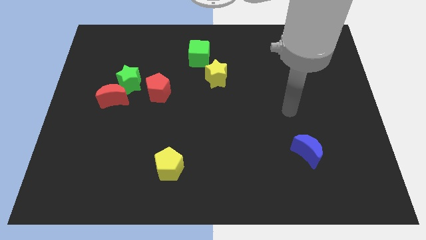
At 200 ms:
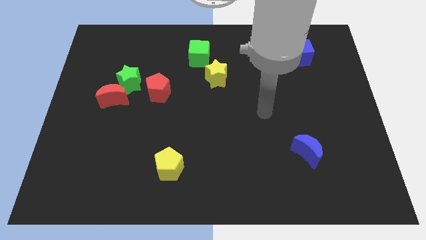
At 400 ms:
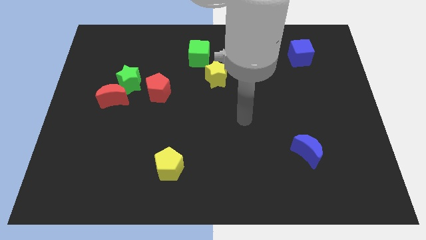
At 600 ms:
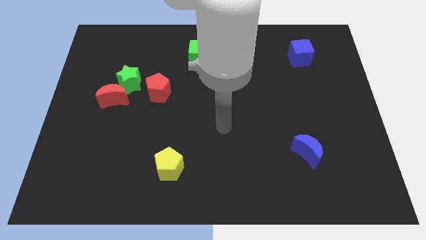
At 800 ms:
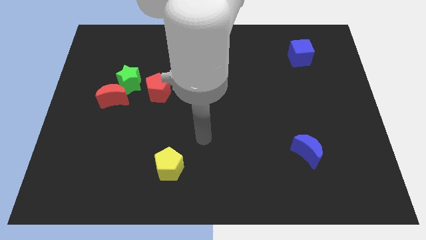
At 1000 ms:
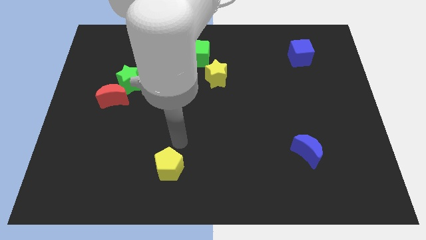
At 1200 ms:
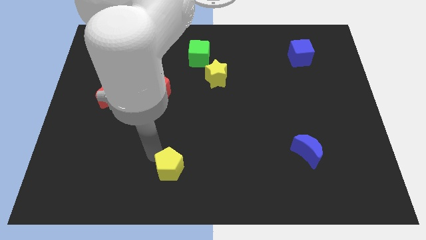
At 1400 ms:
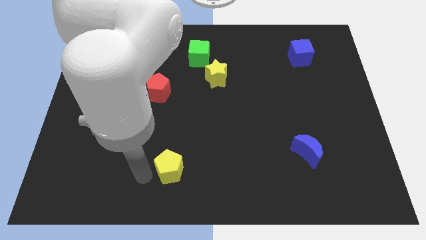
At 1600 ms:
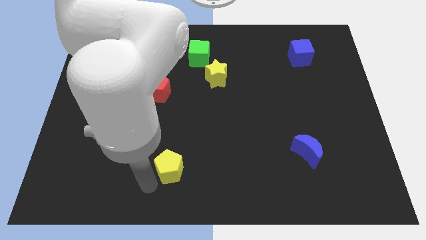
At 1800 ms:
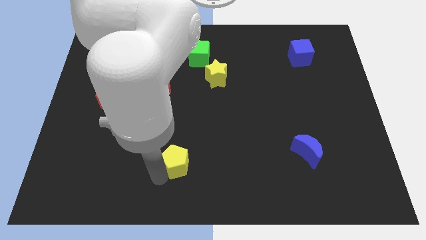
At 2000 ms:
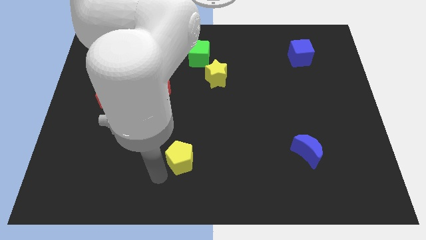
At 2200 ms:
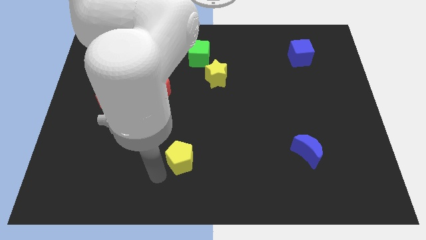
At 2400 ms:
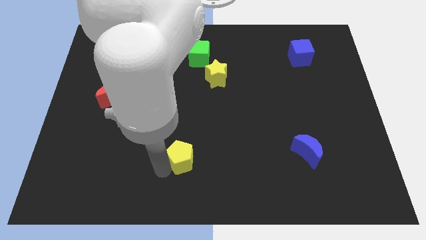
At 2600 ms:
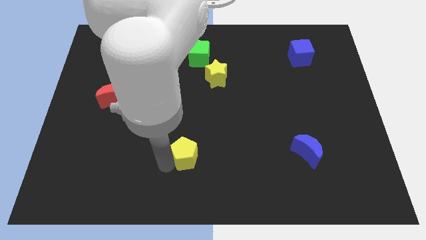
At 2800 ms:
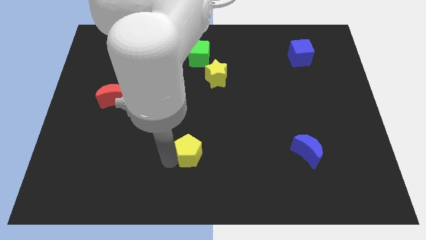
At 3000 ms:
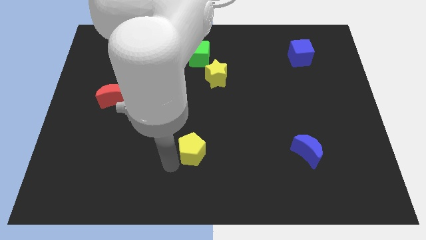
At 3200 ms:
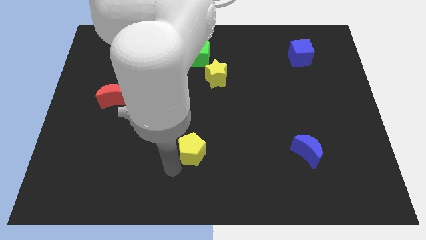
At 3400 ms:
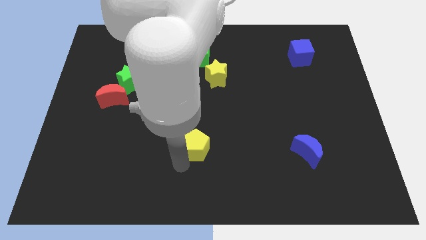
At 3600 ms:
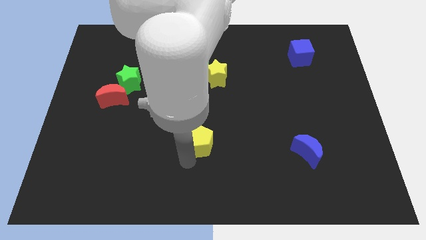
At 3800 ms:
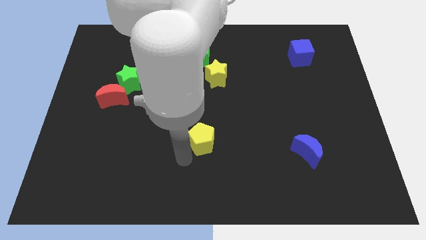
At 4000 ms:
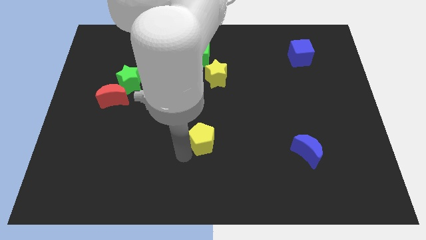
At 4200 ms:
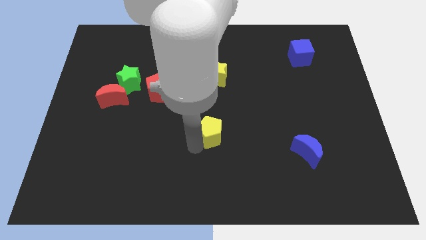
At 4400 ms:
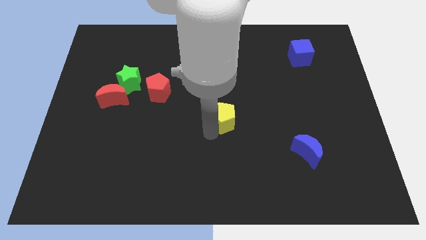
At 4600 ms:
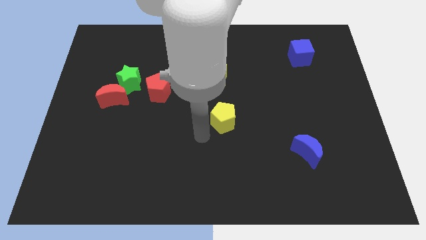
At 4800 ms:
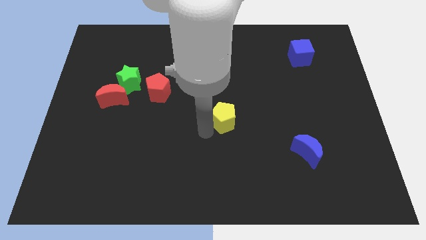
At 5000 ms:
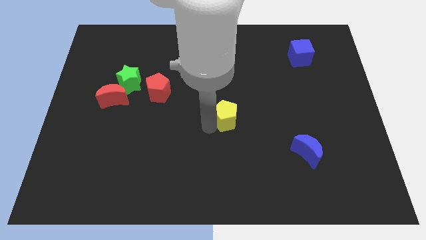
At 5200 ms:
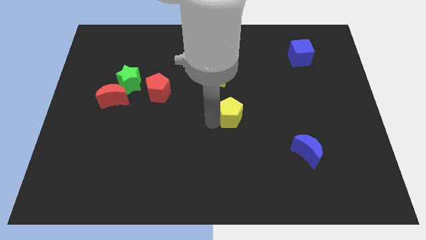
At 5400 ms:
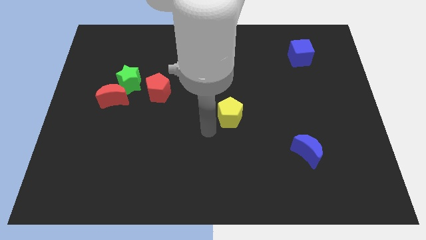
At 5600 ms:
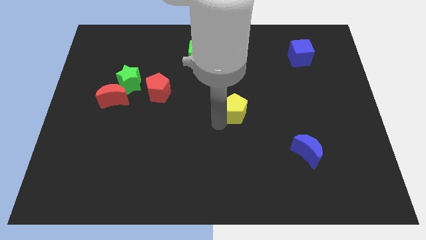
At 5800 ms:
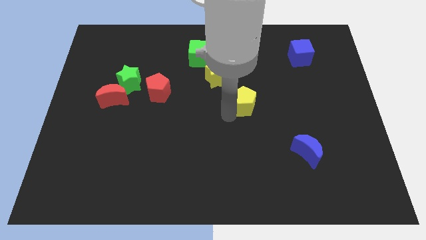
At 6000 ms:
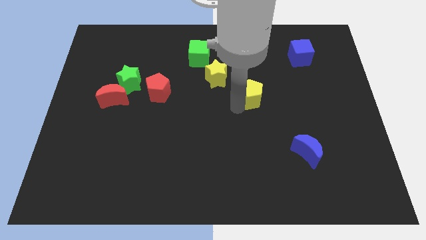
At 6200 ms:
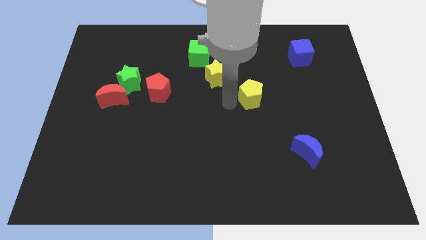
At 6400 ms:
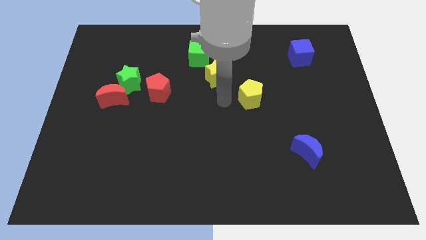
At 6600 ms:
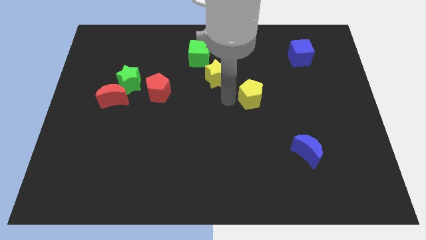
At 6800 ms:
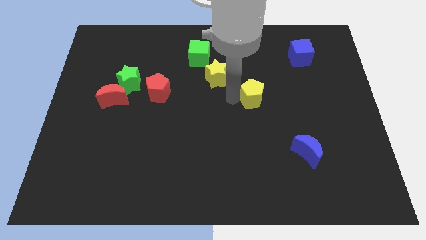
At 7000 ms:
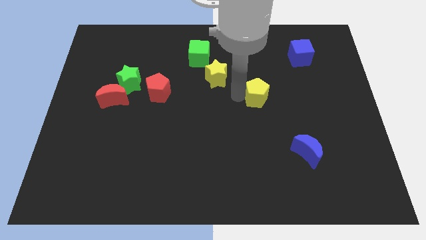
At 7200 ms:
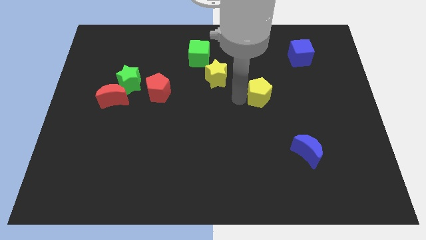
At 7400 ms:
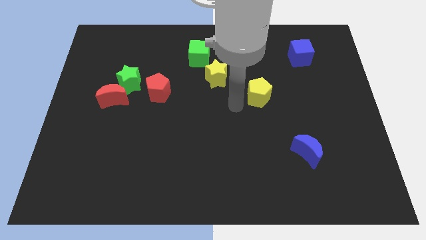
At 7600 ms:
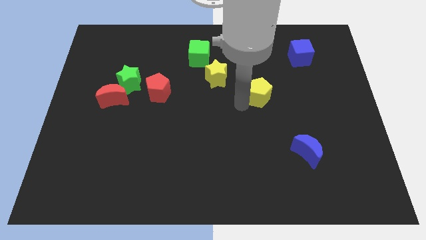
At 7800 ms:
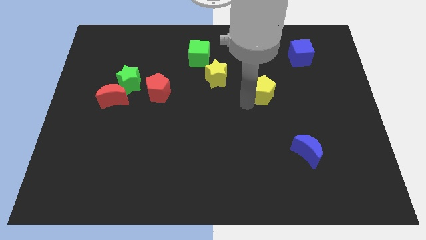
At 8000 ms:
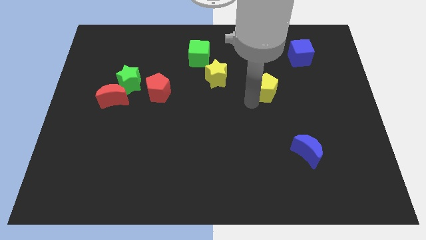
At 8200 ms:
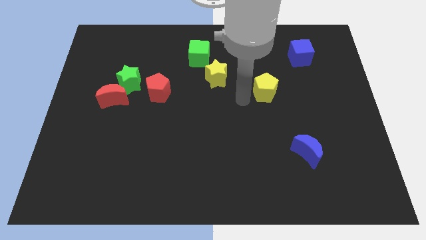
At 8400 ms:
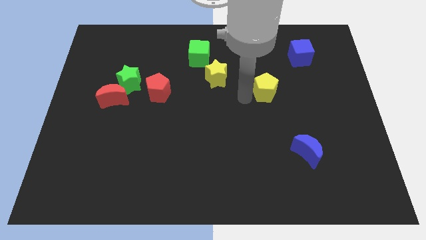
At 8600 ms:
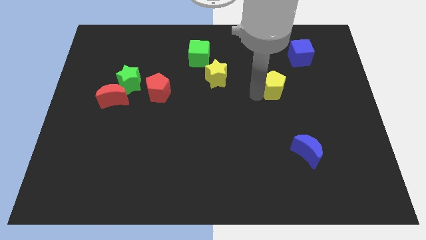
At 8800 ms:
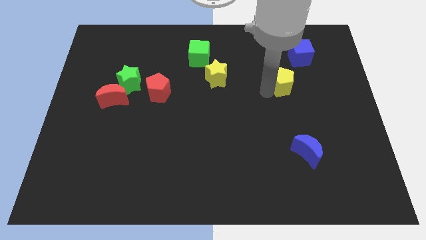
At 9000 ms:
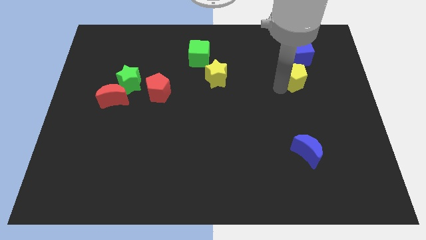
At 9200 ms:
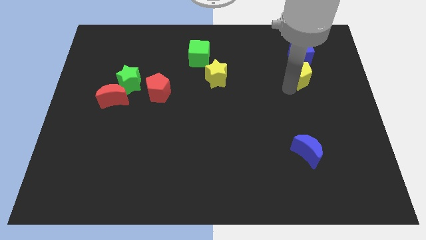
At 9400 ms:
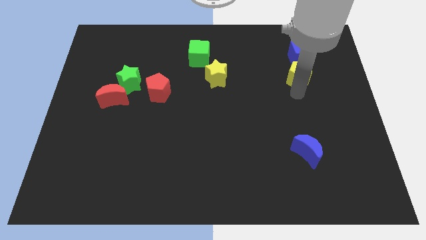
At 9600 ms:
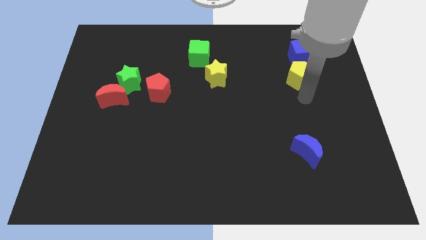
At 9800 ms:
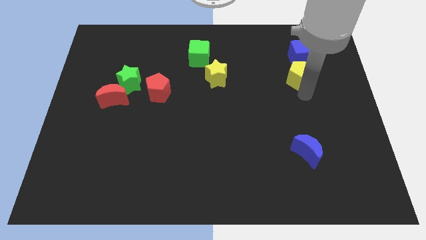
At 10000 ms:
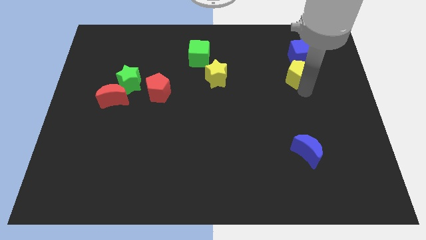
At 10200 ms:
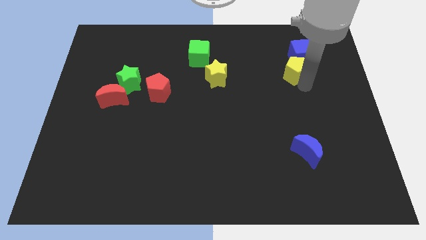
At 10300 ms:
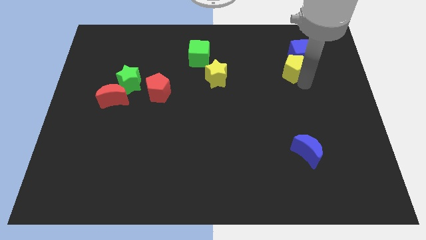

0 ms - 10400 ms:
push the yellow pentagon next to the blue cube

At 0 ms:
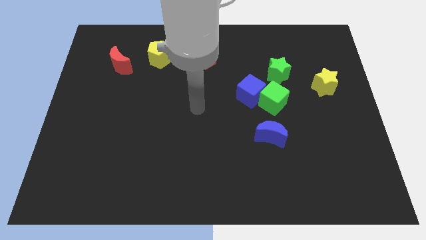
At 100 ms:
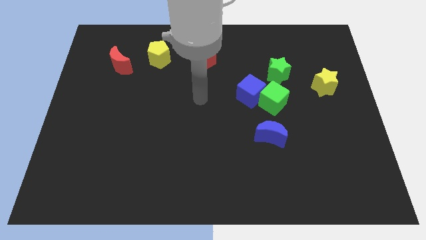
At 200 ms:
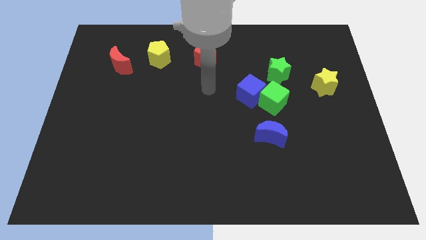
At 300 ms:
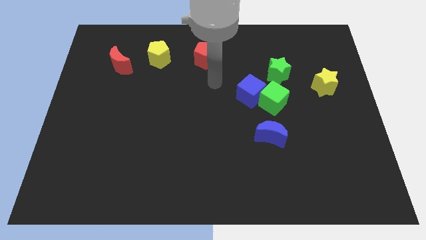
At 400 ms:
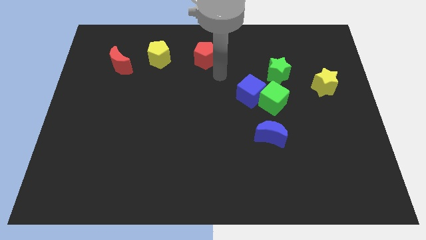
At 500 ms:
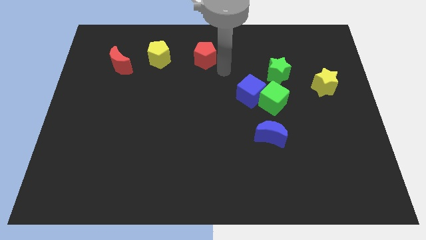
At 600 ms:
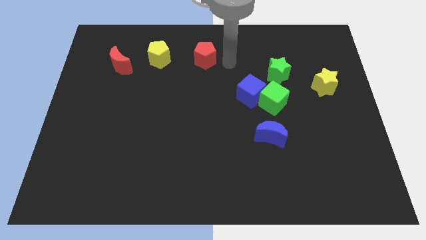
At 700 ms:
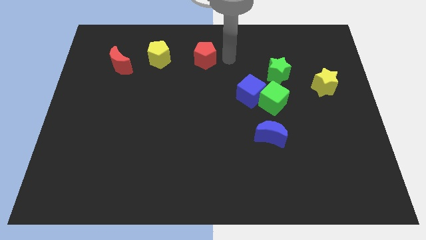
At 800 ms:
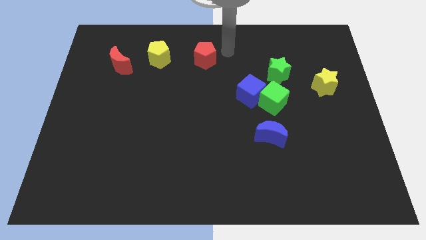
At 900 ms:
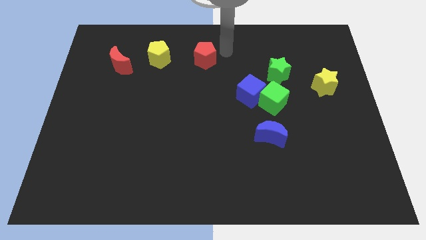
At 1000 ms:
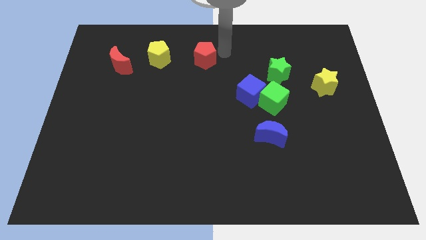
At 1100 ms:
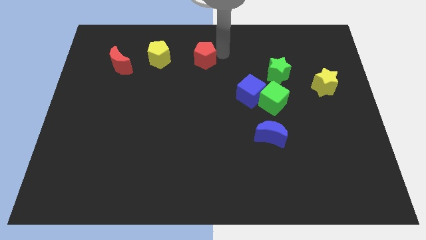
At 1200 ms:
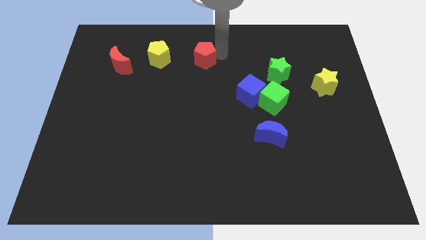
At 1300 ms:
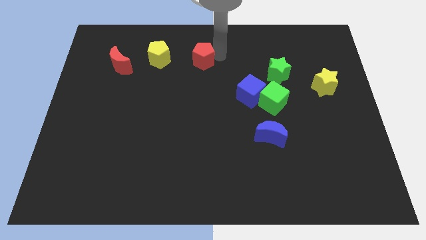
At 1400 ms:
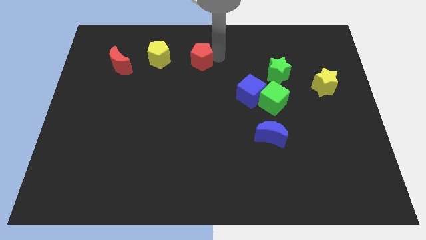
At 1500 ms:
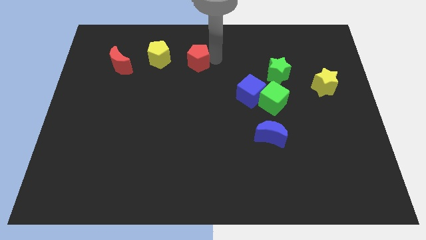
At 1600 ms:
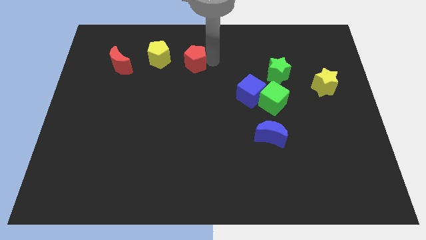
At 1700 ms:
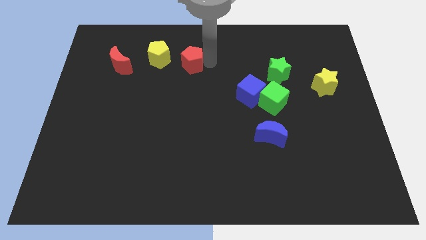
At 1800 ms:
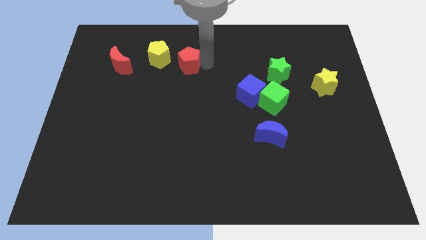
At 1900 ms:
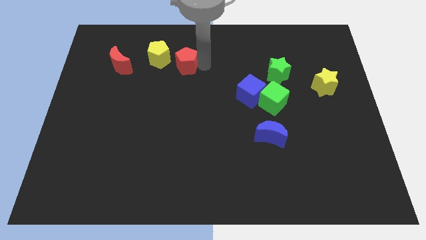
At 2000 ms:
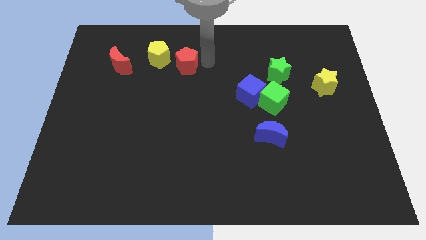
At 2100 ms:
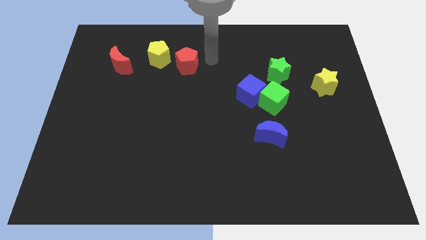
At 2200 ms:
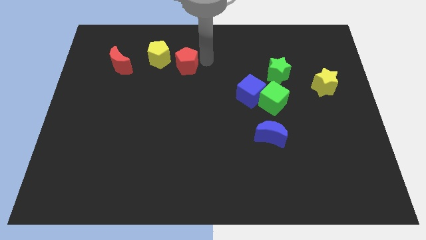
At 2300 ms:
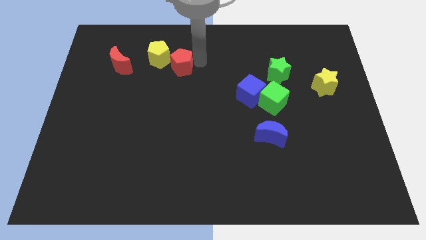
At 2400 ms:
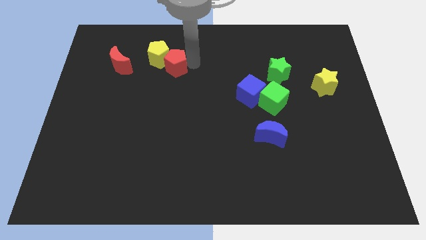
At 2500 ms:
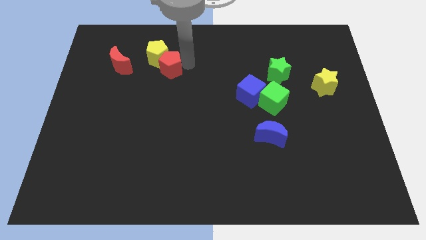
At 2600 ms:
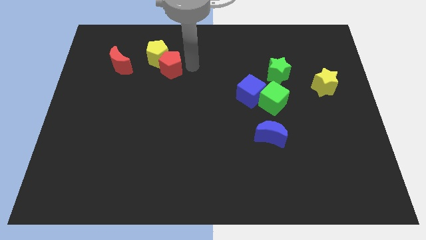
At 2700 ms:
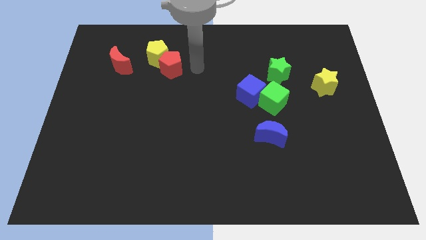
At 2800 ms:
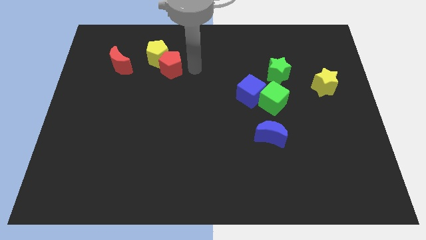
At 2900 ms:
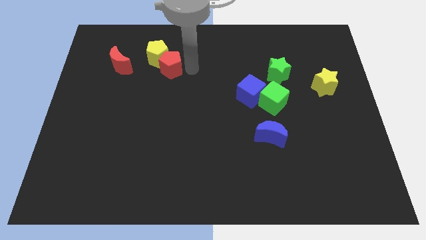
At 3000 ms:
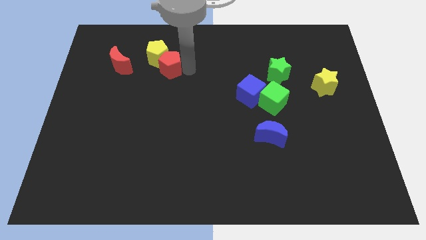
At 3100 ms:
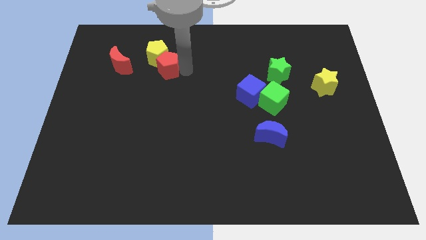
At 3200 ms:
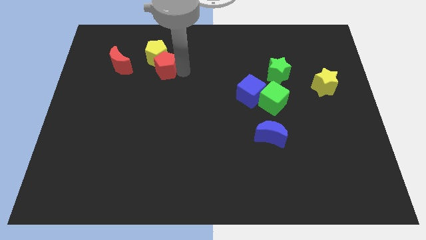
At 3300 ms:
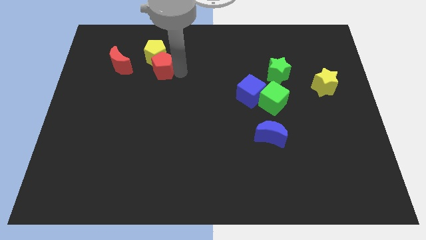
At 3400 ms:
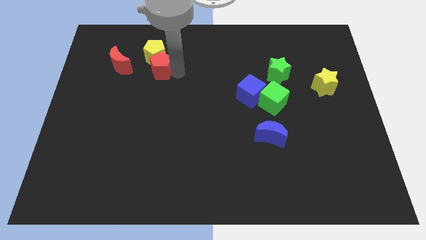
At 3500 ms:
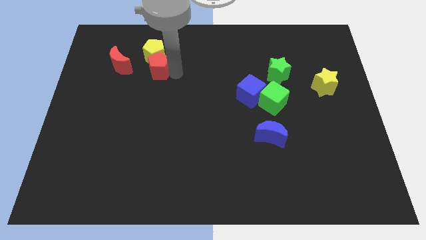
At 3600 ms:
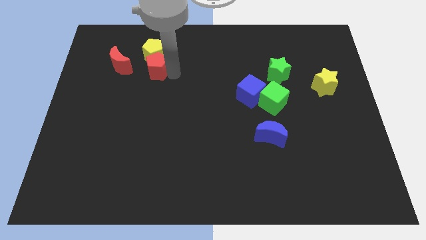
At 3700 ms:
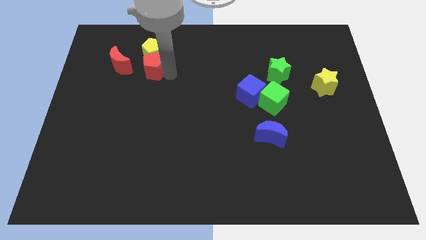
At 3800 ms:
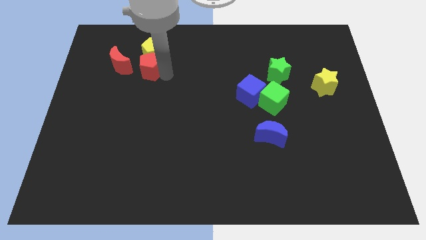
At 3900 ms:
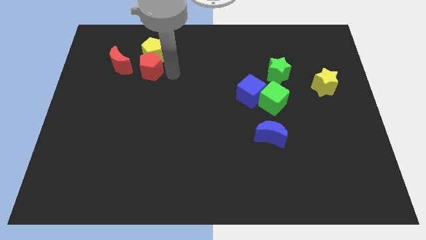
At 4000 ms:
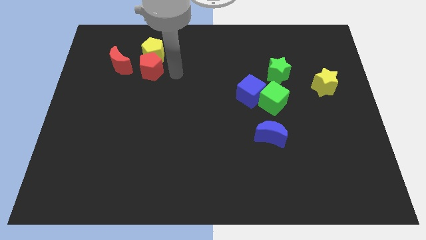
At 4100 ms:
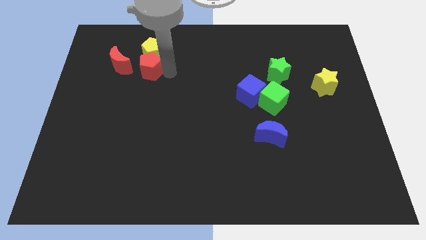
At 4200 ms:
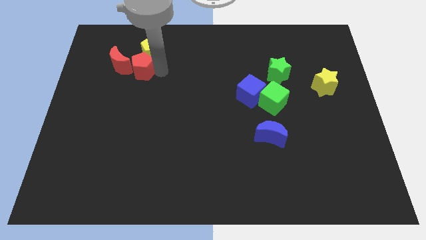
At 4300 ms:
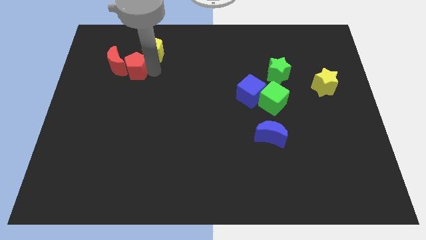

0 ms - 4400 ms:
put the red pentagon to the red moon
